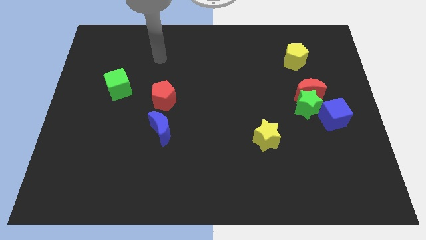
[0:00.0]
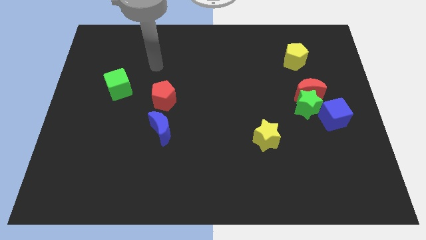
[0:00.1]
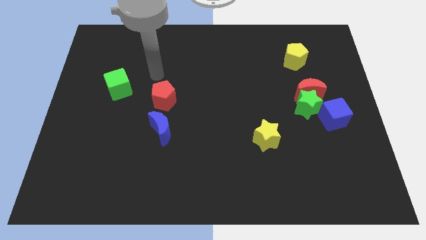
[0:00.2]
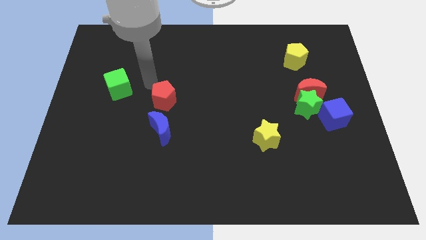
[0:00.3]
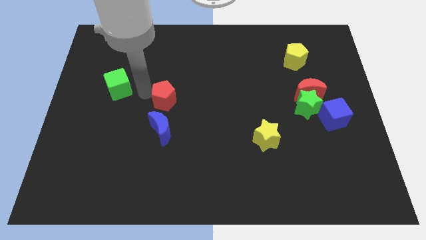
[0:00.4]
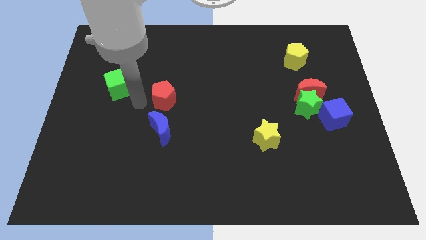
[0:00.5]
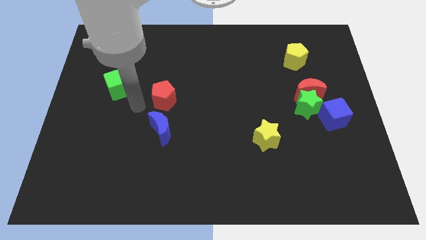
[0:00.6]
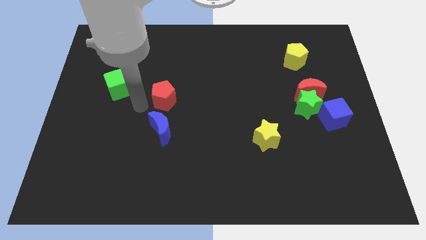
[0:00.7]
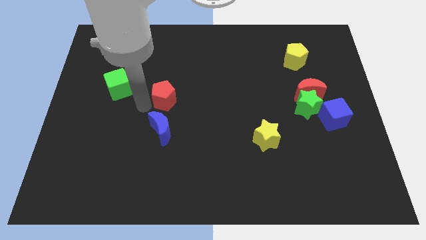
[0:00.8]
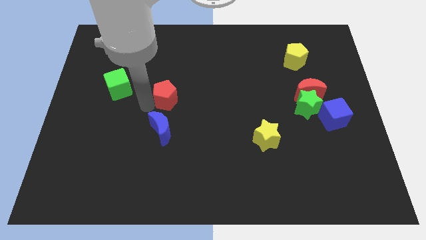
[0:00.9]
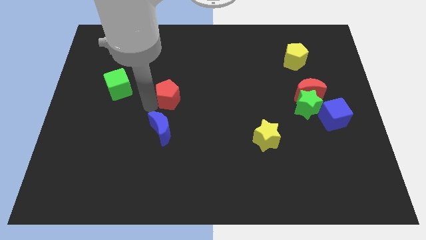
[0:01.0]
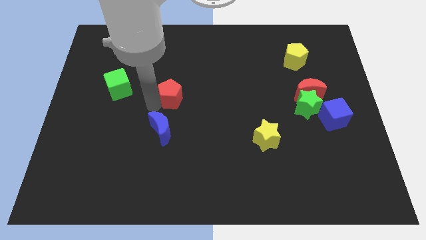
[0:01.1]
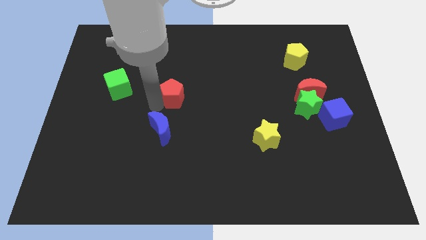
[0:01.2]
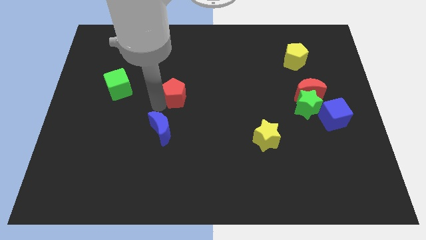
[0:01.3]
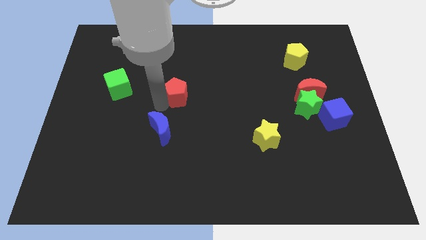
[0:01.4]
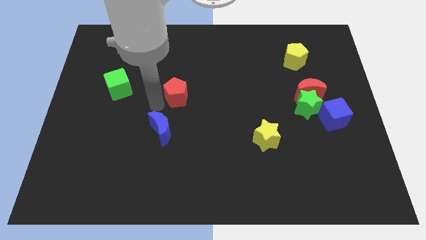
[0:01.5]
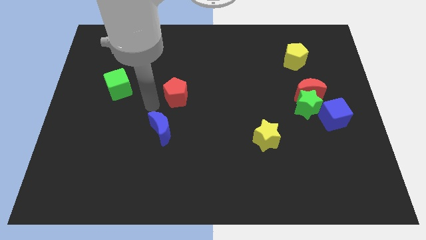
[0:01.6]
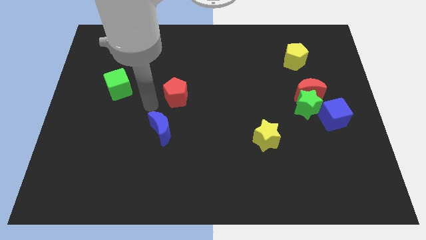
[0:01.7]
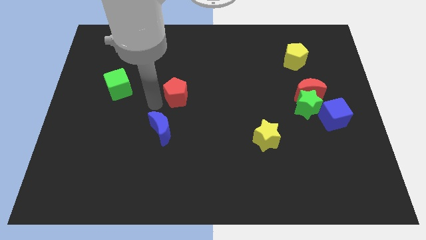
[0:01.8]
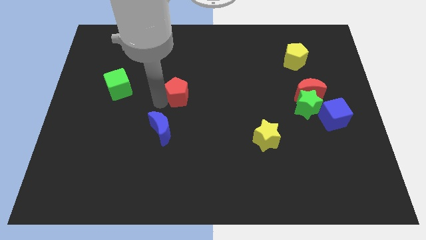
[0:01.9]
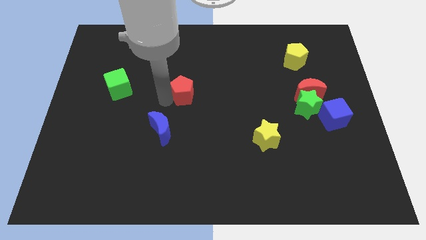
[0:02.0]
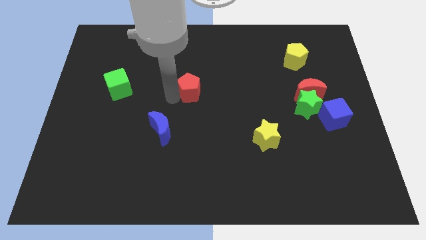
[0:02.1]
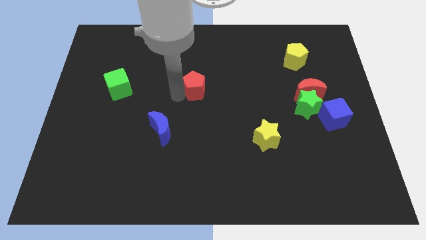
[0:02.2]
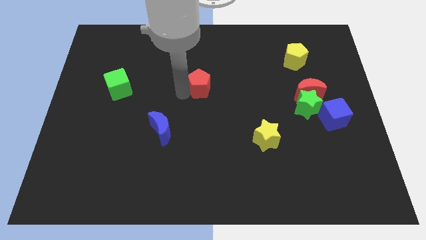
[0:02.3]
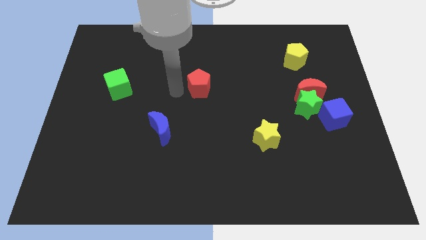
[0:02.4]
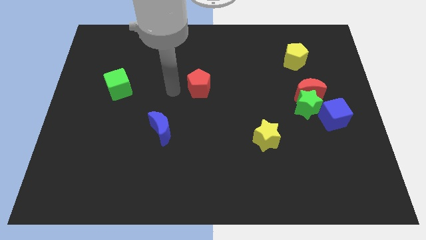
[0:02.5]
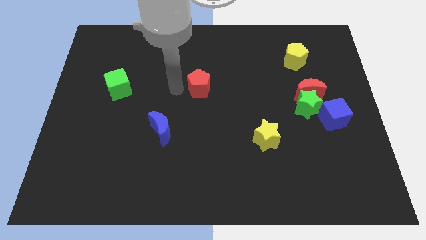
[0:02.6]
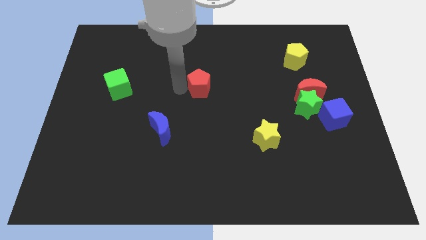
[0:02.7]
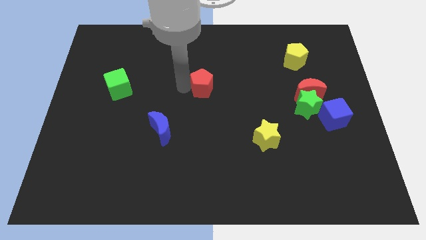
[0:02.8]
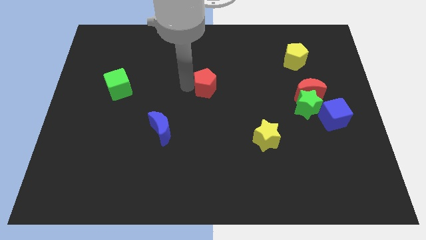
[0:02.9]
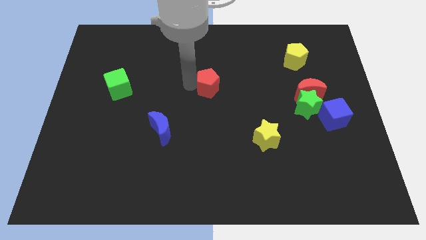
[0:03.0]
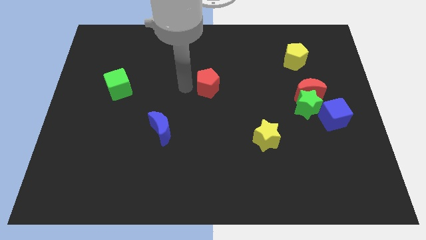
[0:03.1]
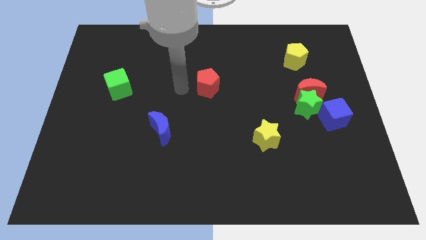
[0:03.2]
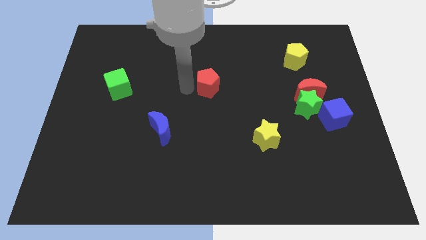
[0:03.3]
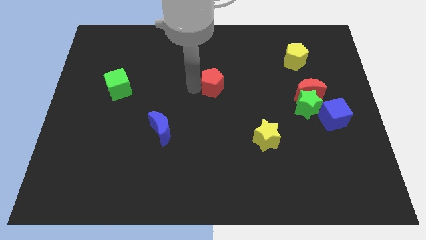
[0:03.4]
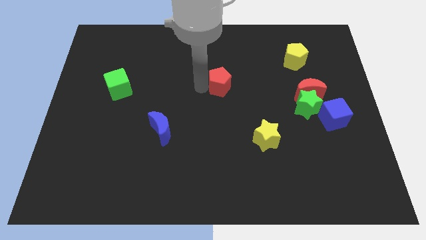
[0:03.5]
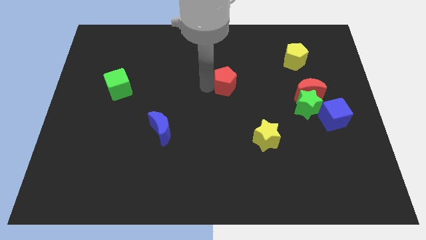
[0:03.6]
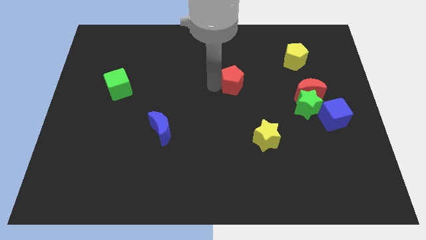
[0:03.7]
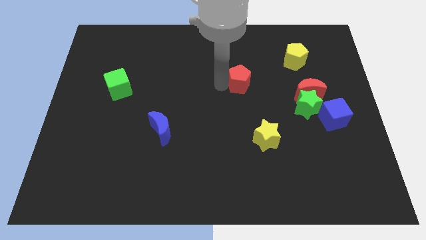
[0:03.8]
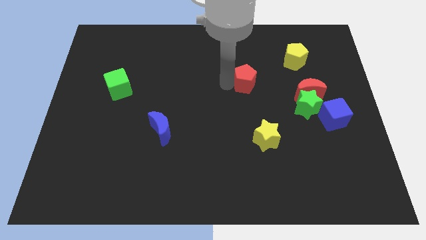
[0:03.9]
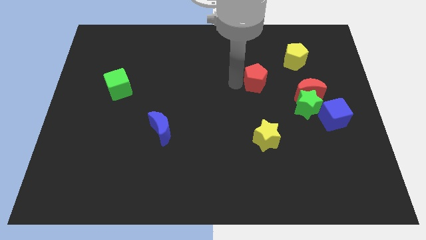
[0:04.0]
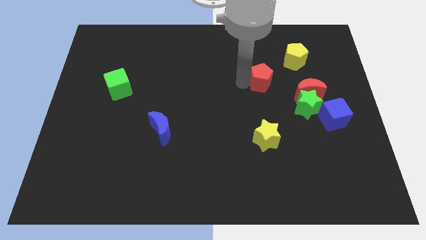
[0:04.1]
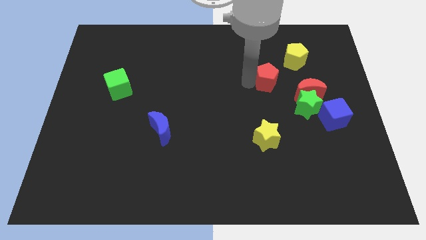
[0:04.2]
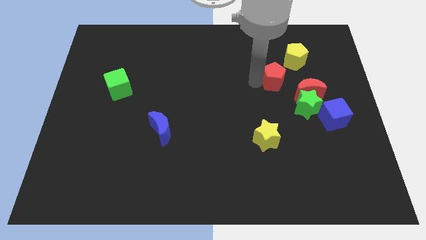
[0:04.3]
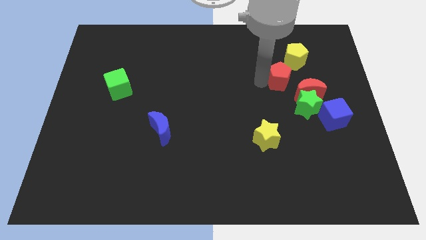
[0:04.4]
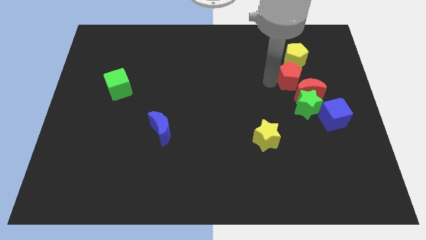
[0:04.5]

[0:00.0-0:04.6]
put the red pentagon to the top of the red moon

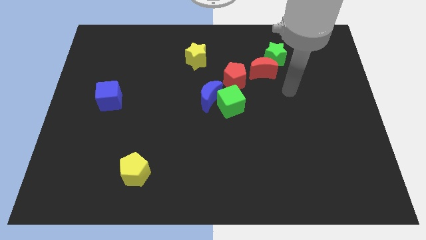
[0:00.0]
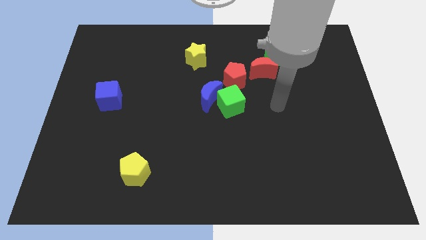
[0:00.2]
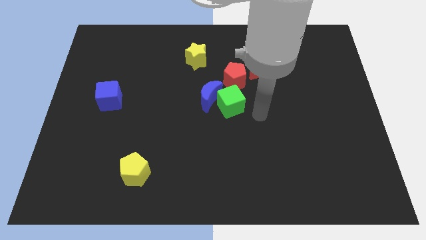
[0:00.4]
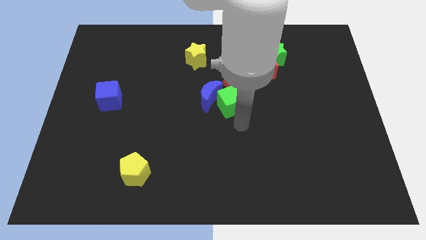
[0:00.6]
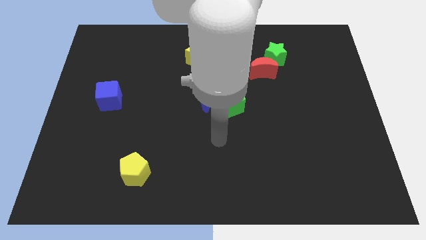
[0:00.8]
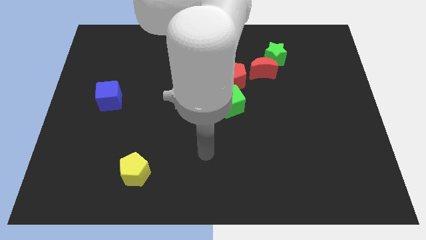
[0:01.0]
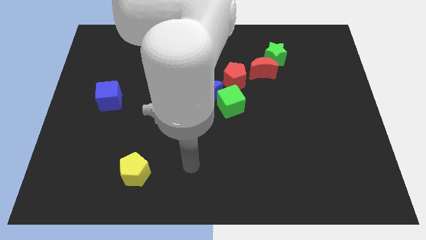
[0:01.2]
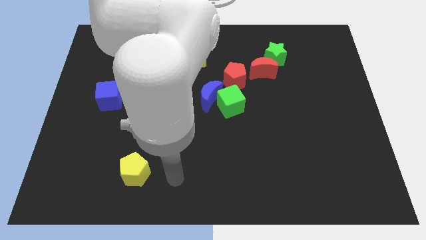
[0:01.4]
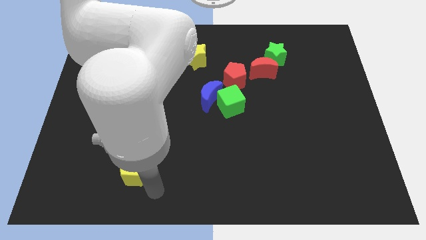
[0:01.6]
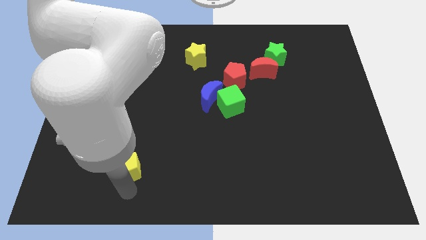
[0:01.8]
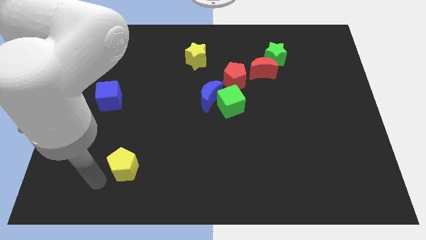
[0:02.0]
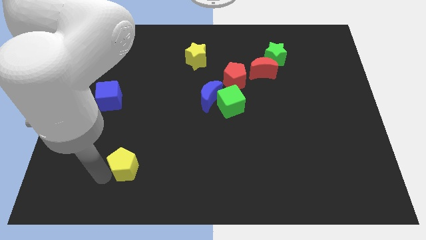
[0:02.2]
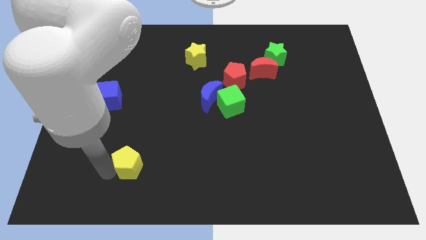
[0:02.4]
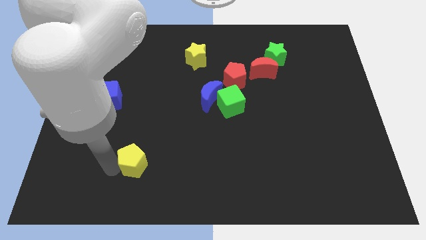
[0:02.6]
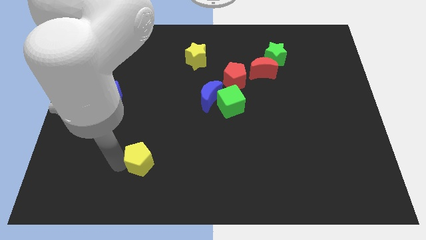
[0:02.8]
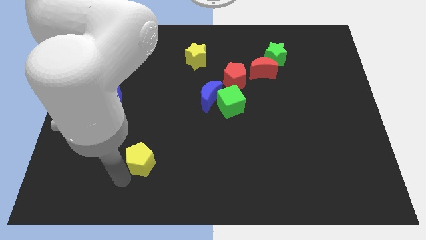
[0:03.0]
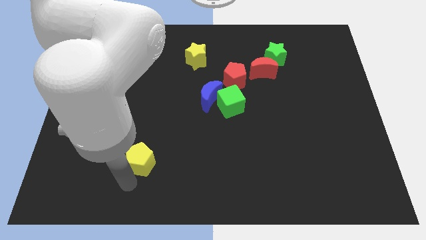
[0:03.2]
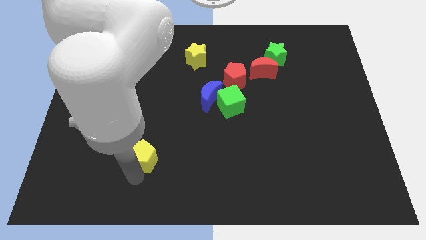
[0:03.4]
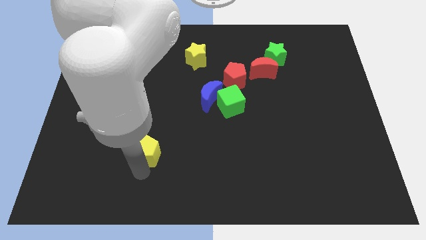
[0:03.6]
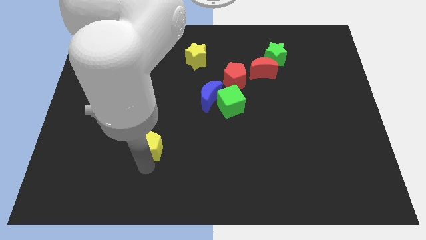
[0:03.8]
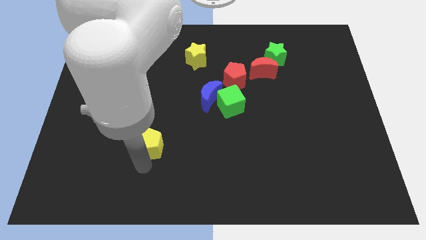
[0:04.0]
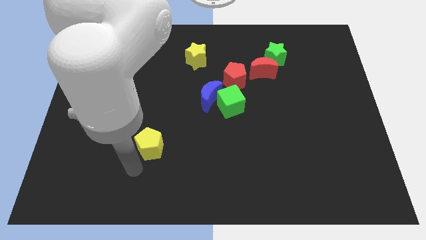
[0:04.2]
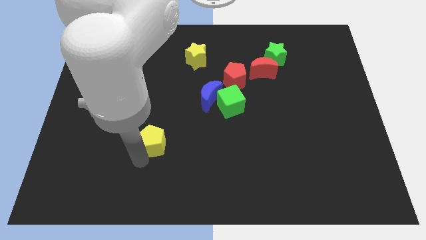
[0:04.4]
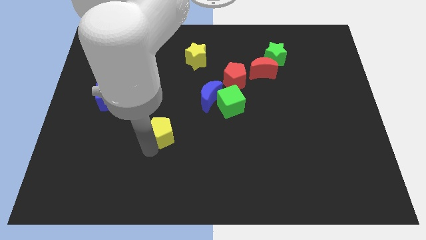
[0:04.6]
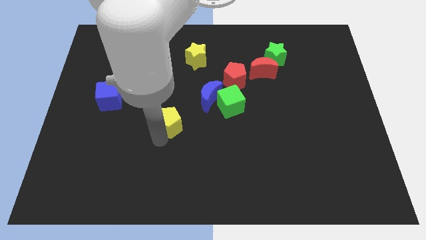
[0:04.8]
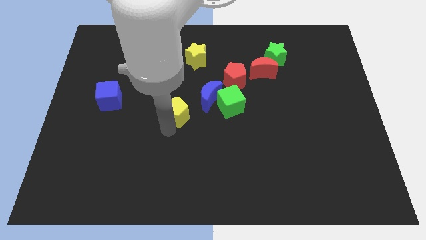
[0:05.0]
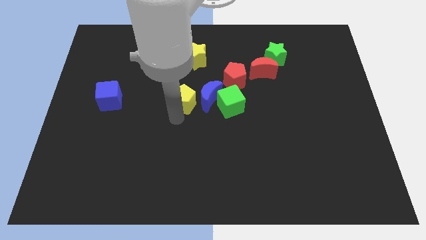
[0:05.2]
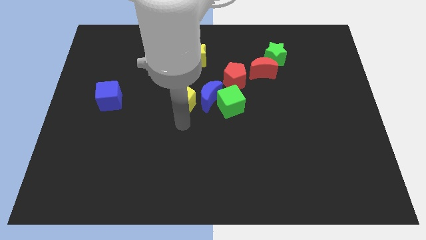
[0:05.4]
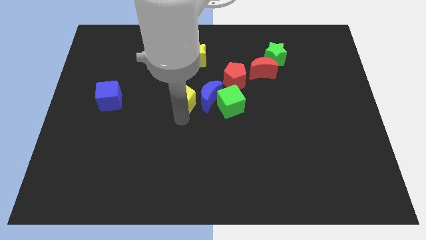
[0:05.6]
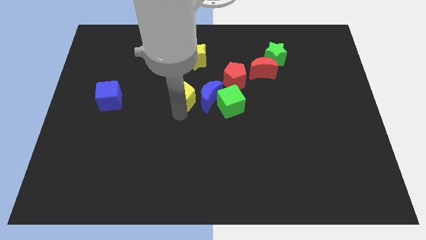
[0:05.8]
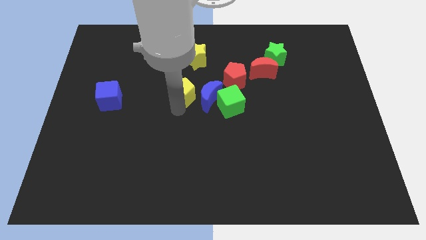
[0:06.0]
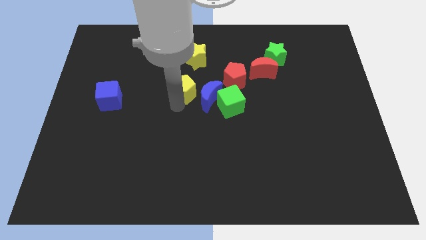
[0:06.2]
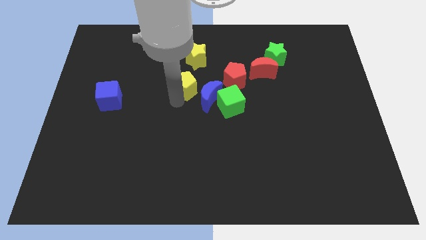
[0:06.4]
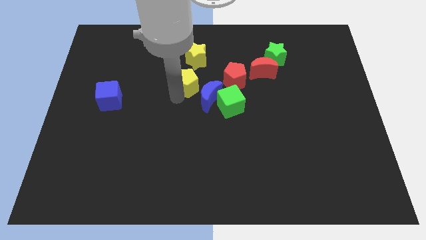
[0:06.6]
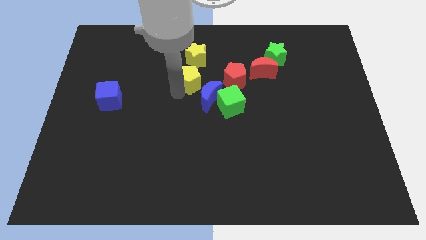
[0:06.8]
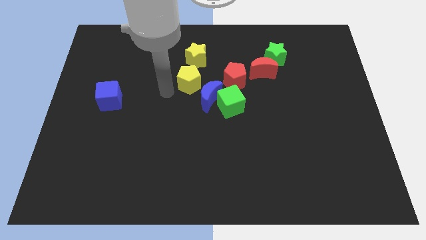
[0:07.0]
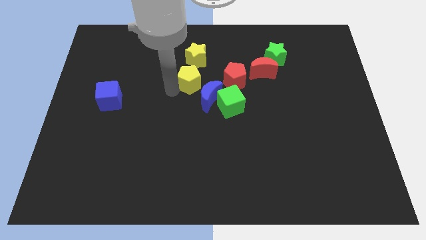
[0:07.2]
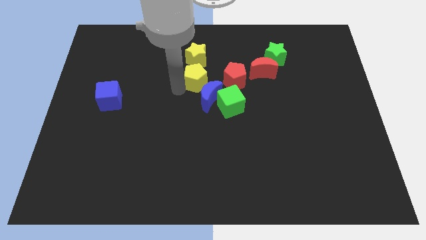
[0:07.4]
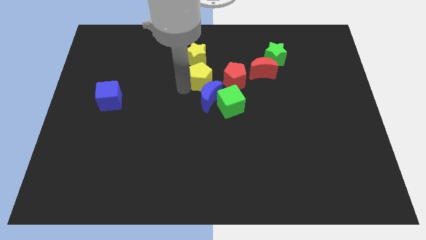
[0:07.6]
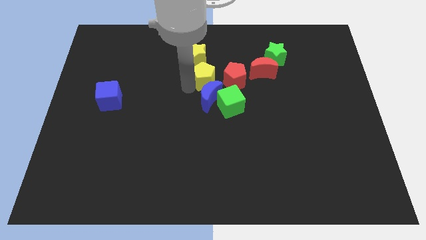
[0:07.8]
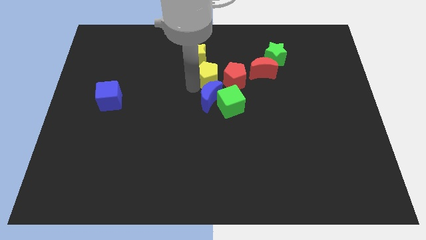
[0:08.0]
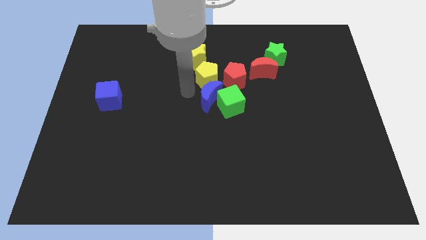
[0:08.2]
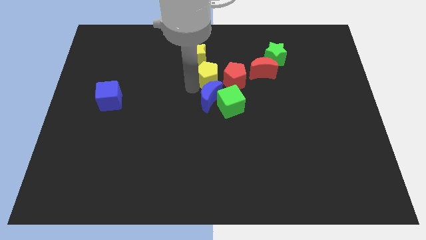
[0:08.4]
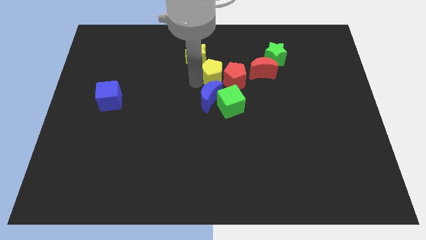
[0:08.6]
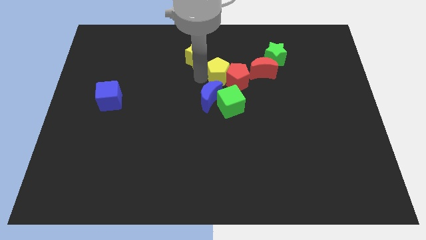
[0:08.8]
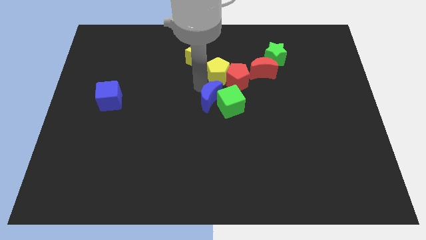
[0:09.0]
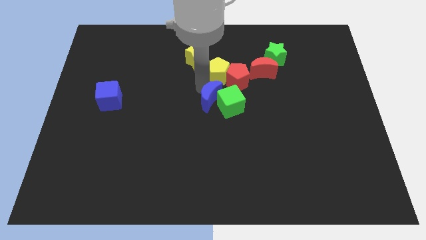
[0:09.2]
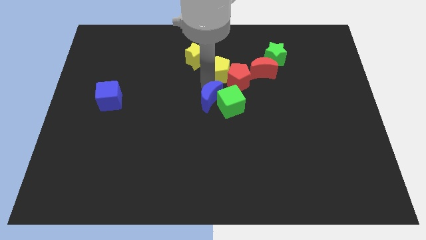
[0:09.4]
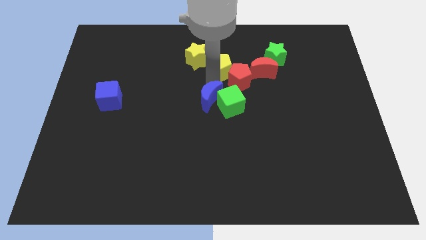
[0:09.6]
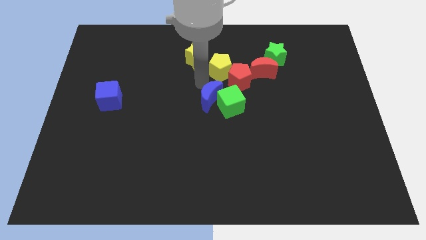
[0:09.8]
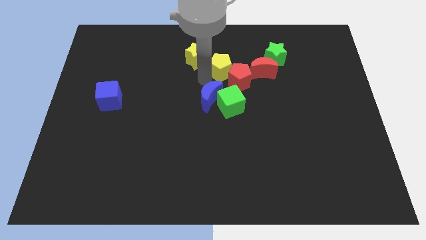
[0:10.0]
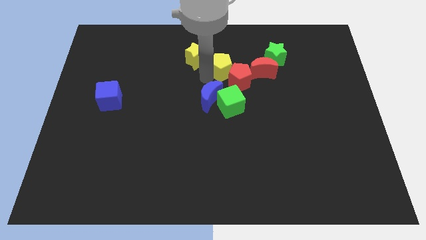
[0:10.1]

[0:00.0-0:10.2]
put the yellow pentagon left of the green star
